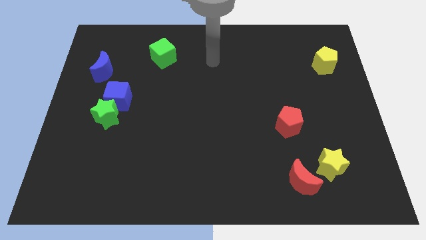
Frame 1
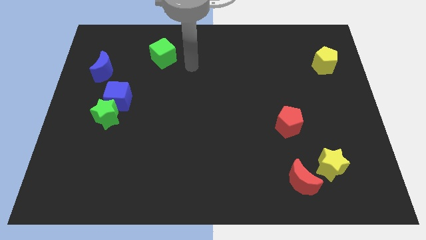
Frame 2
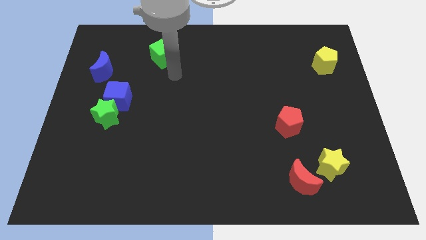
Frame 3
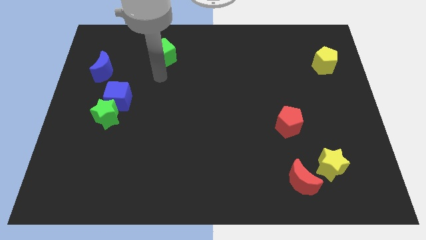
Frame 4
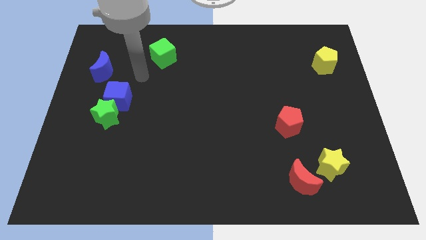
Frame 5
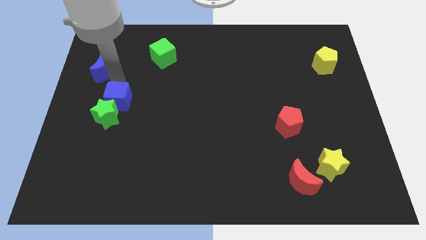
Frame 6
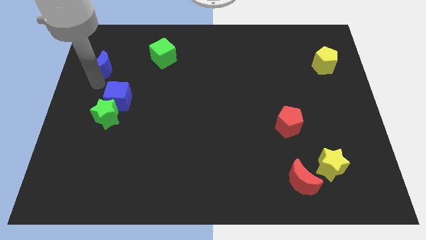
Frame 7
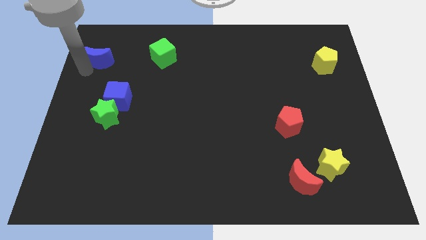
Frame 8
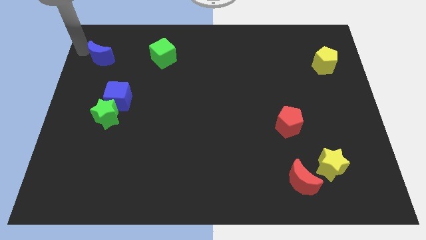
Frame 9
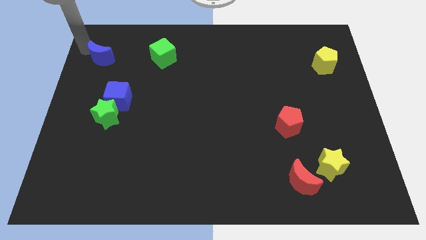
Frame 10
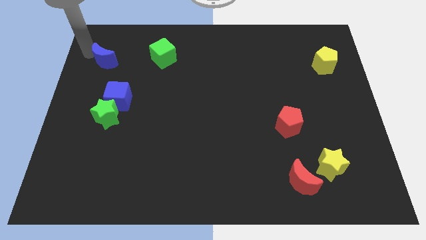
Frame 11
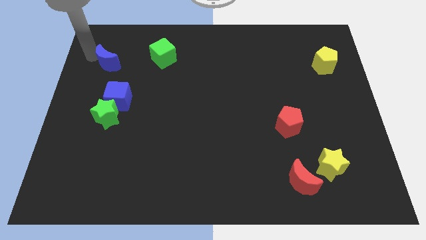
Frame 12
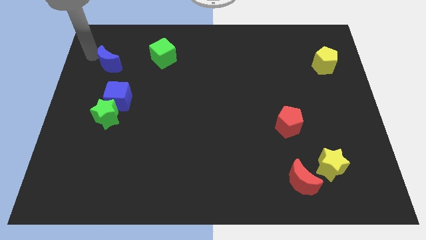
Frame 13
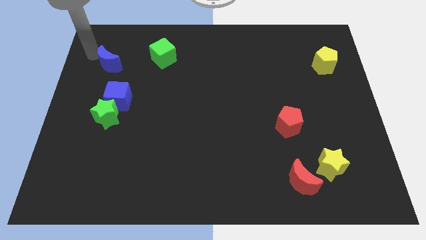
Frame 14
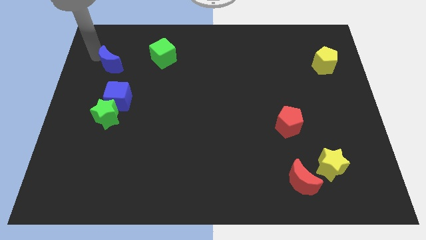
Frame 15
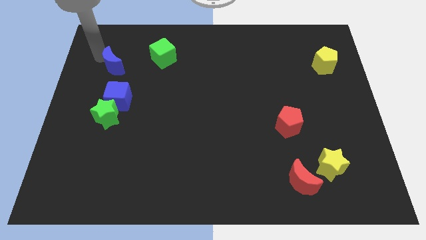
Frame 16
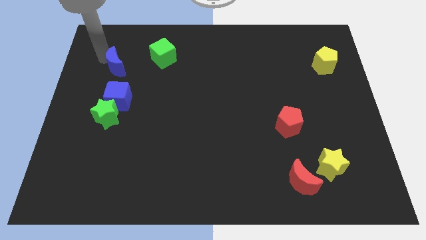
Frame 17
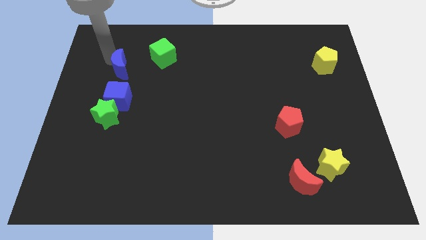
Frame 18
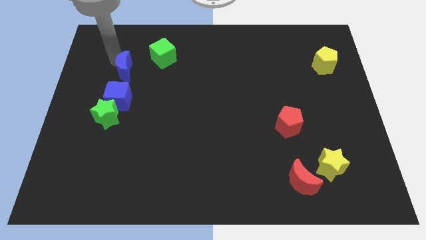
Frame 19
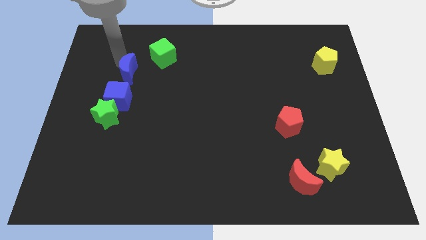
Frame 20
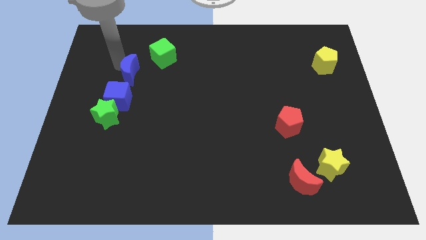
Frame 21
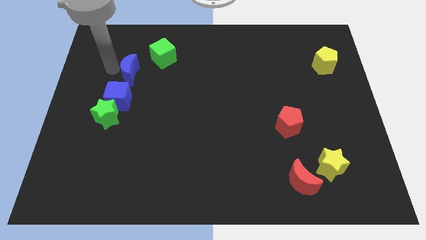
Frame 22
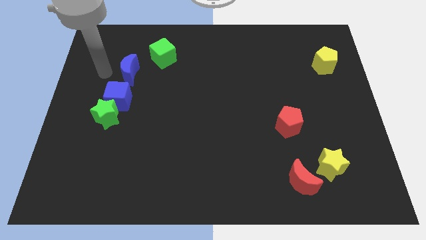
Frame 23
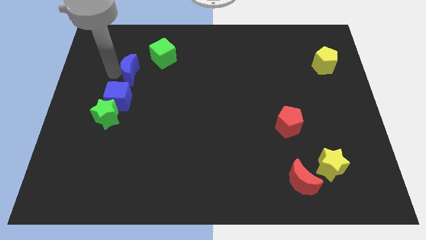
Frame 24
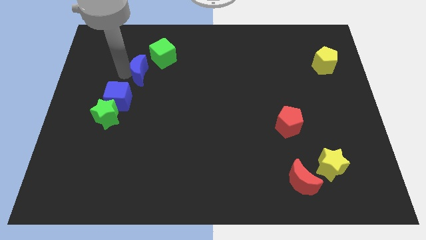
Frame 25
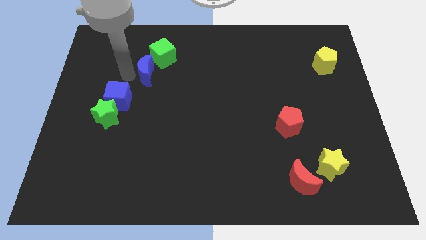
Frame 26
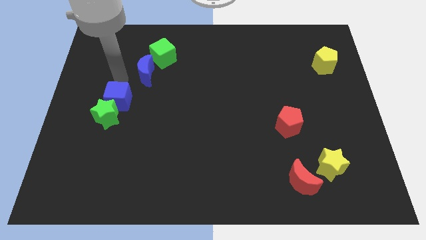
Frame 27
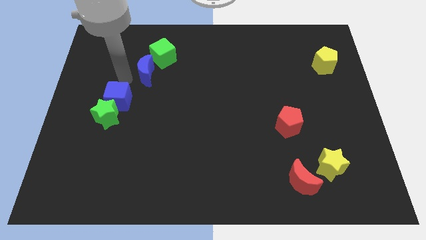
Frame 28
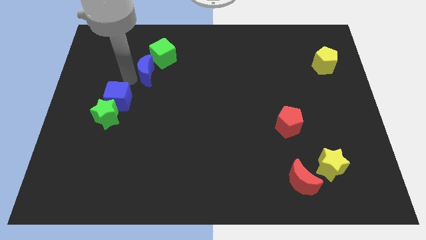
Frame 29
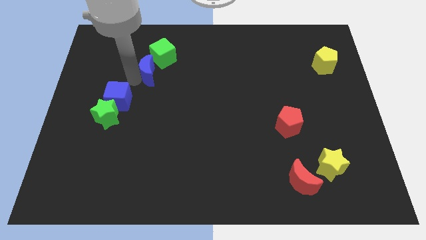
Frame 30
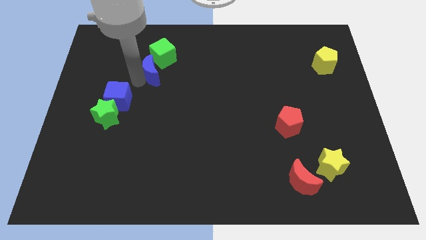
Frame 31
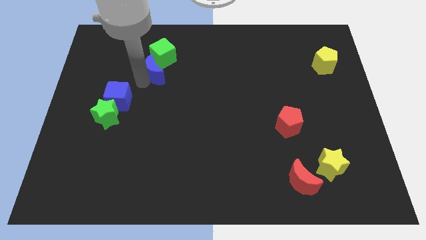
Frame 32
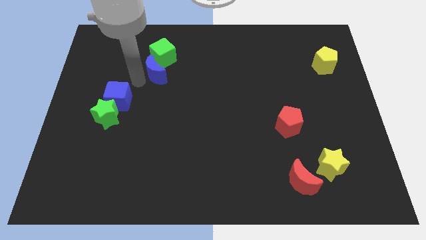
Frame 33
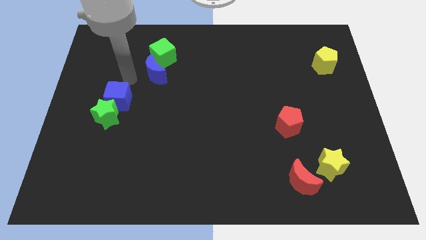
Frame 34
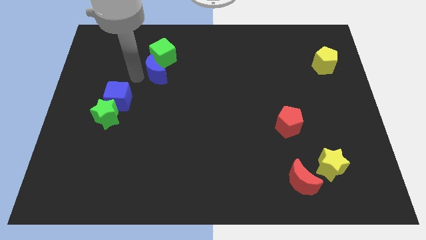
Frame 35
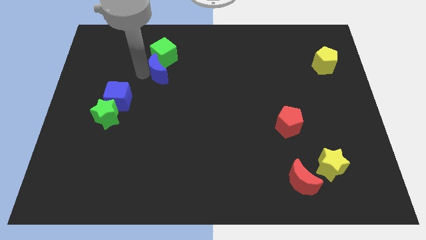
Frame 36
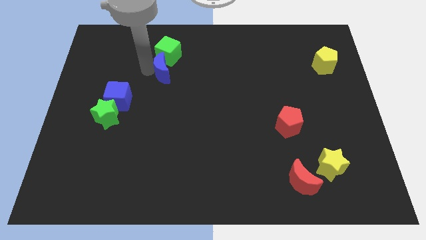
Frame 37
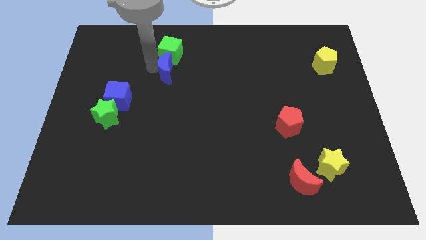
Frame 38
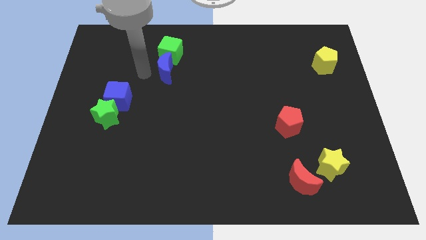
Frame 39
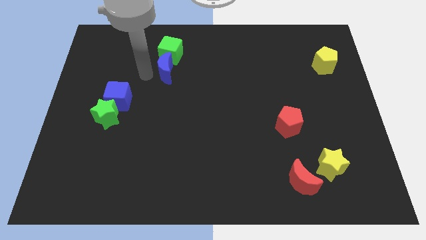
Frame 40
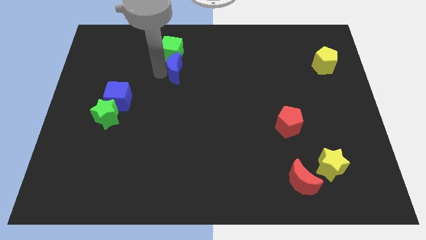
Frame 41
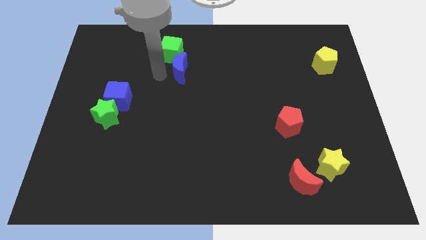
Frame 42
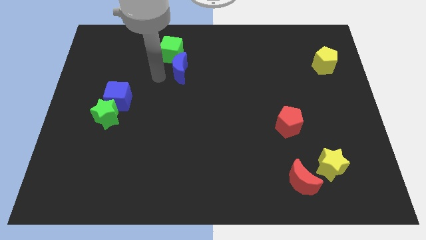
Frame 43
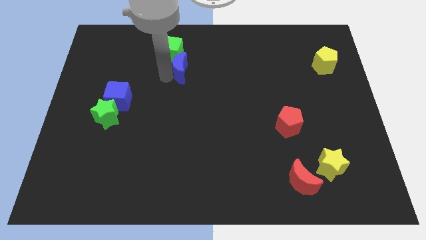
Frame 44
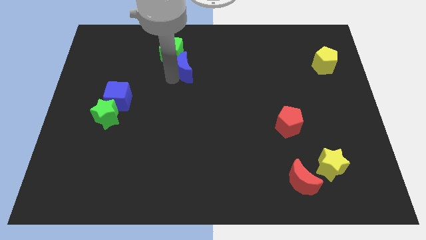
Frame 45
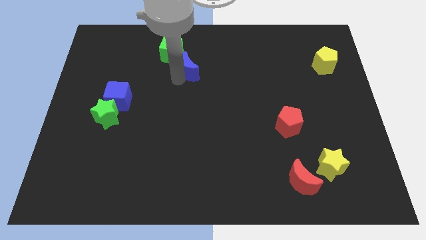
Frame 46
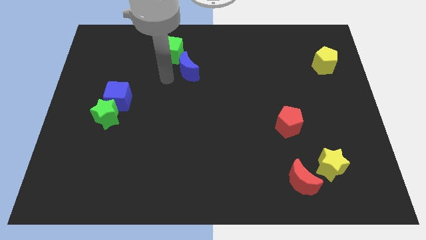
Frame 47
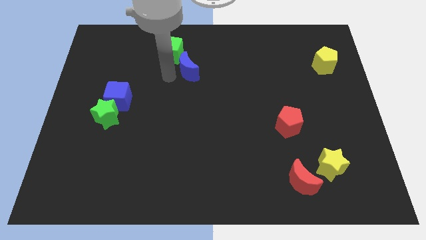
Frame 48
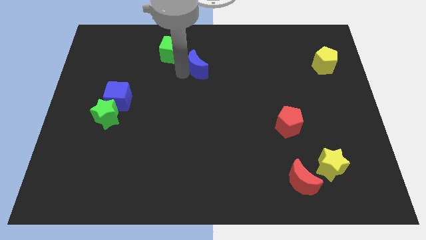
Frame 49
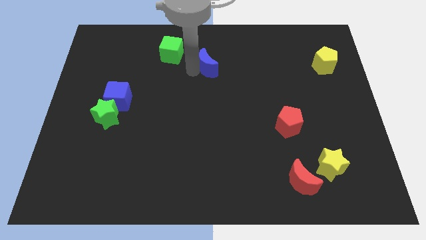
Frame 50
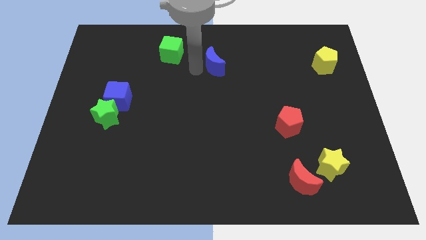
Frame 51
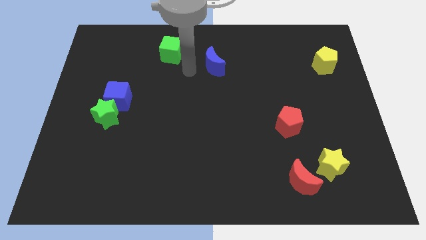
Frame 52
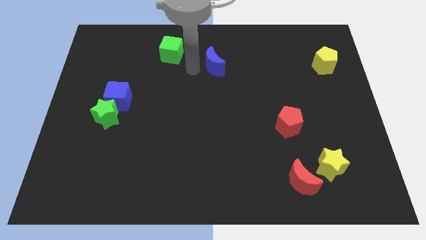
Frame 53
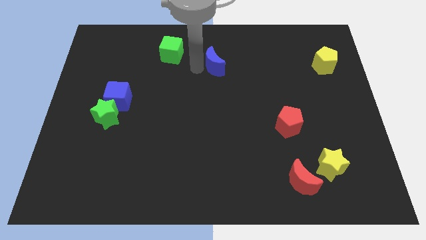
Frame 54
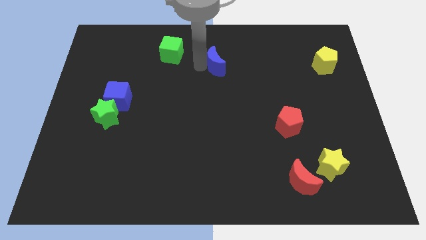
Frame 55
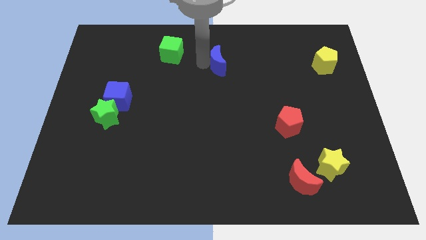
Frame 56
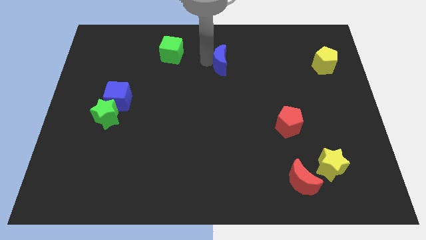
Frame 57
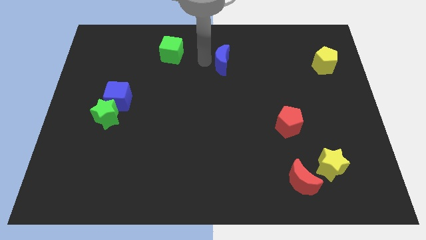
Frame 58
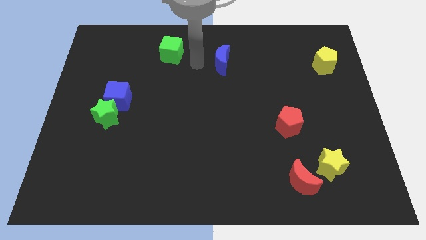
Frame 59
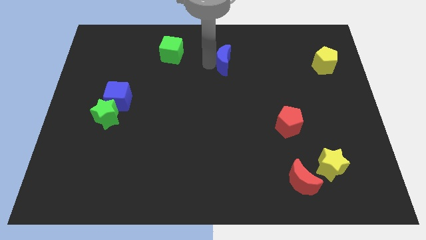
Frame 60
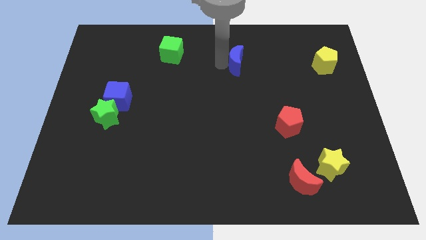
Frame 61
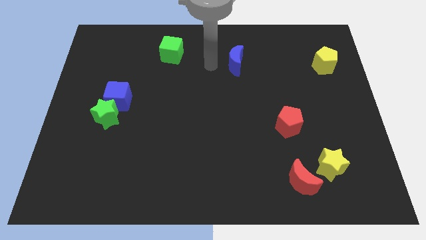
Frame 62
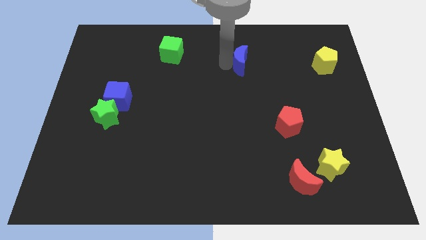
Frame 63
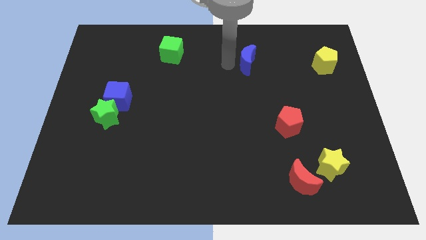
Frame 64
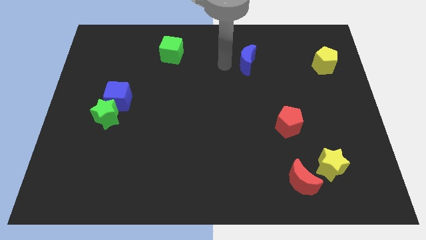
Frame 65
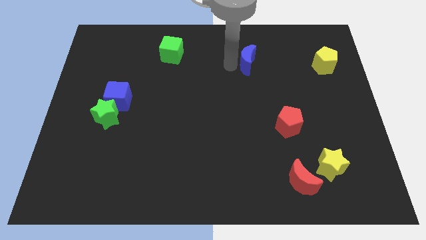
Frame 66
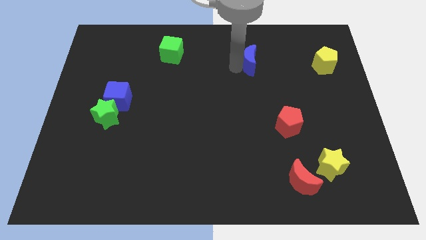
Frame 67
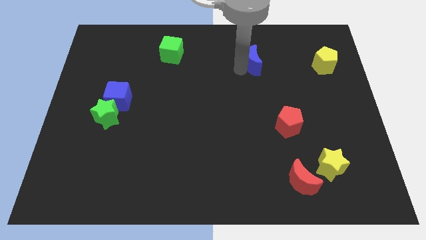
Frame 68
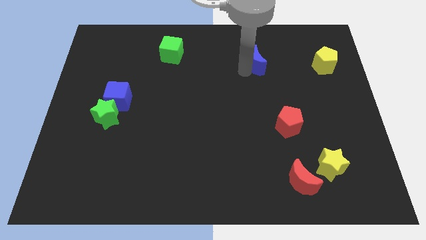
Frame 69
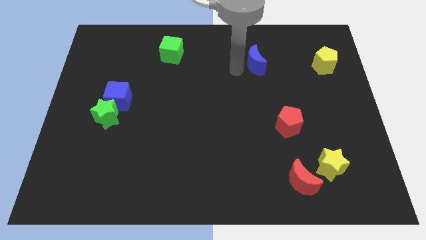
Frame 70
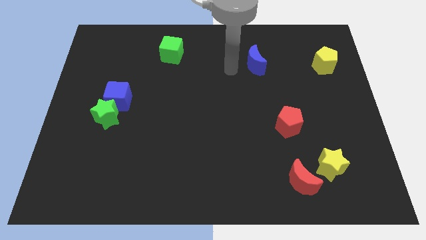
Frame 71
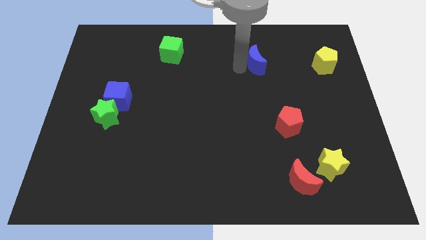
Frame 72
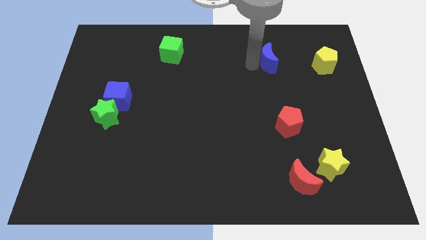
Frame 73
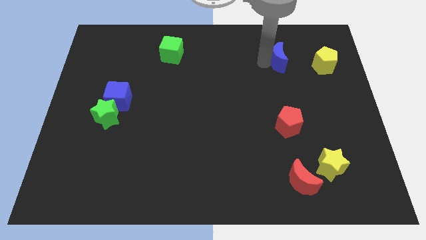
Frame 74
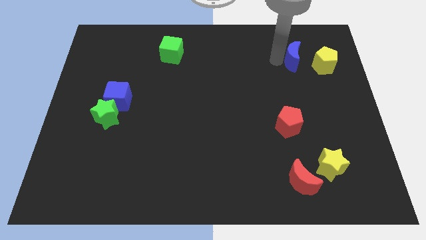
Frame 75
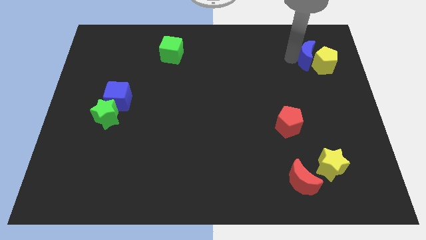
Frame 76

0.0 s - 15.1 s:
slide the blue moon close to the yellow pentagon
